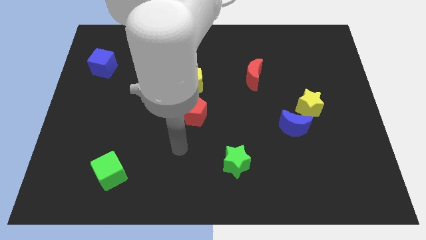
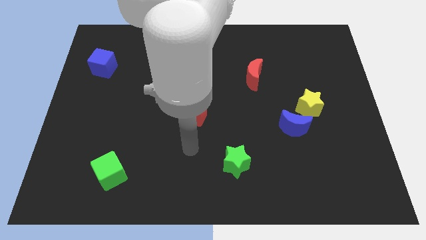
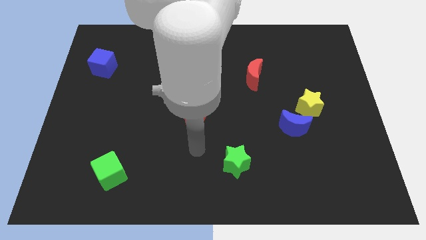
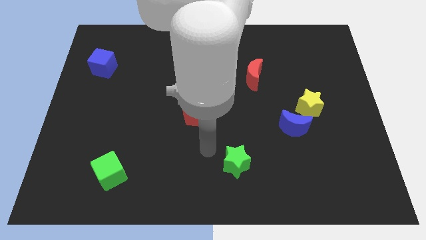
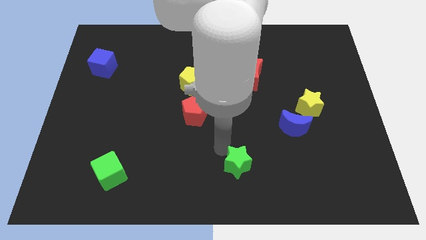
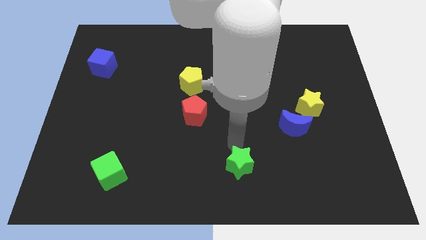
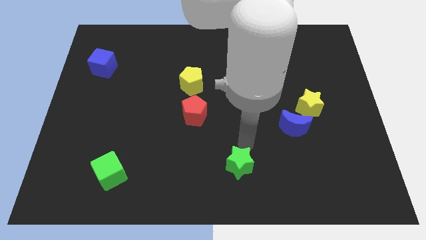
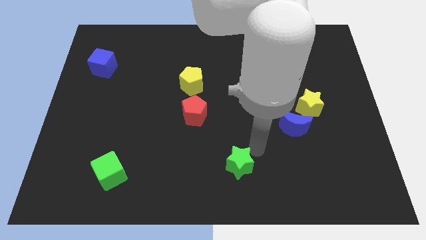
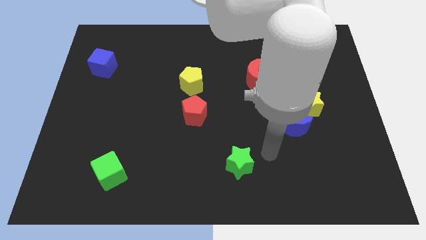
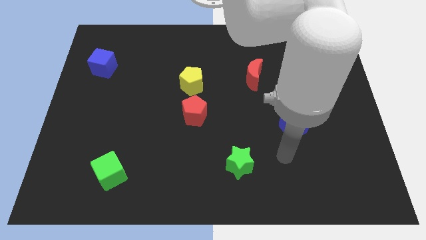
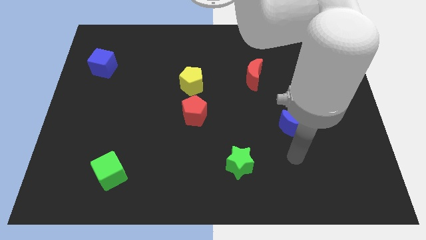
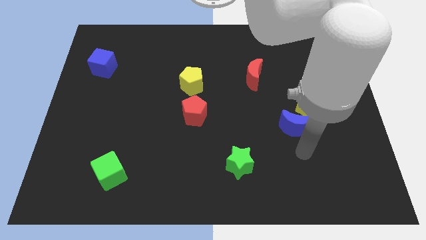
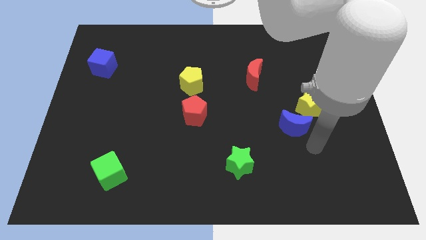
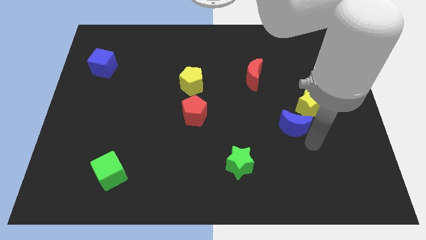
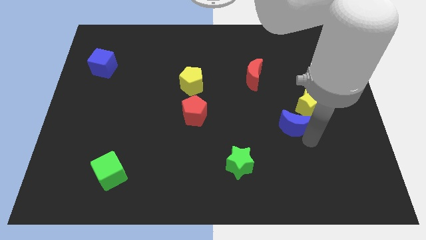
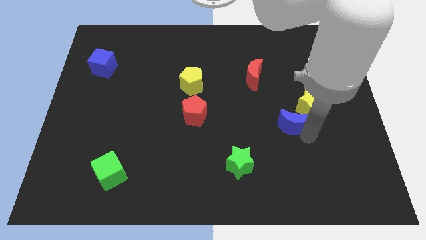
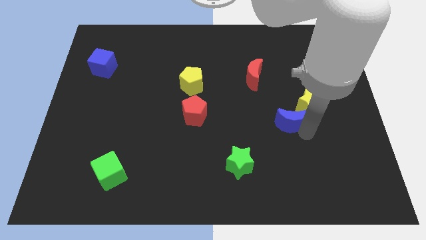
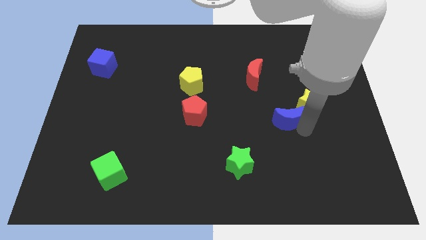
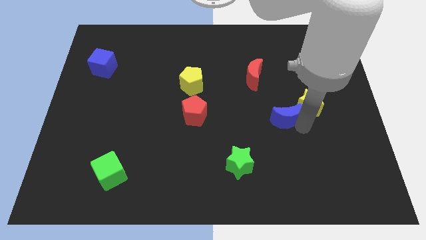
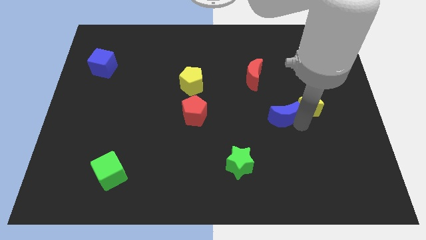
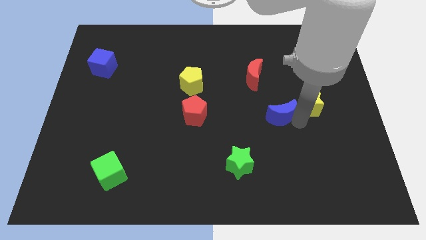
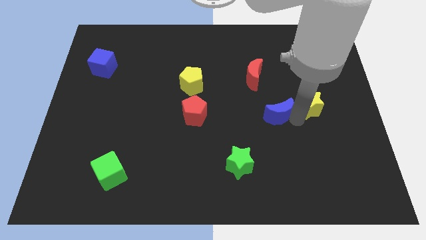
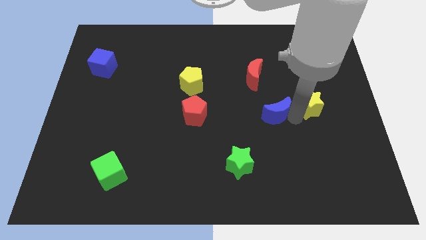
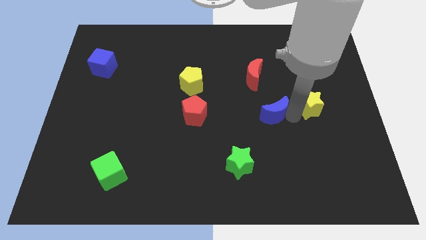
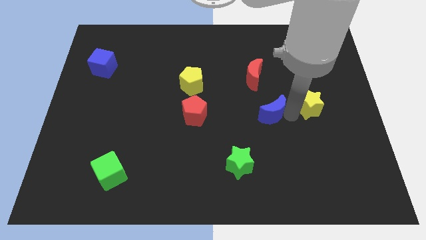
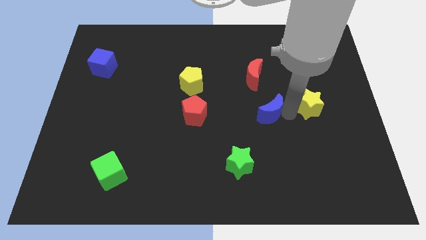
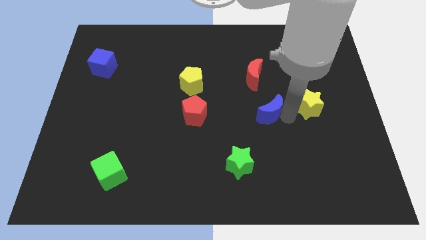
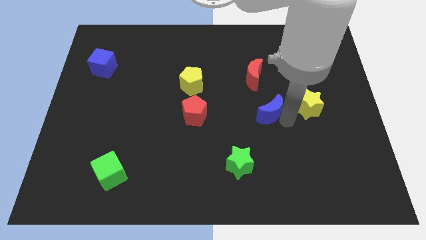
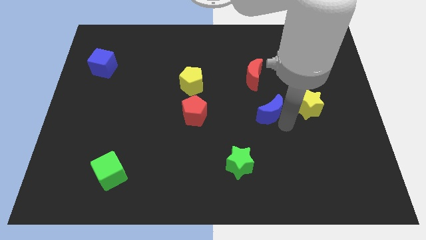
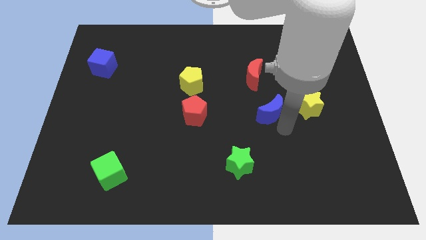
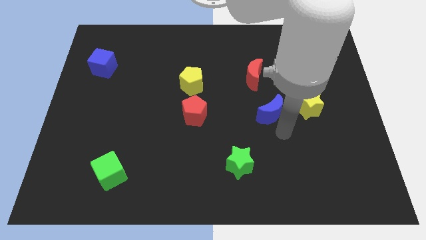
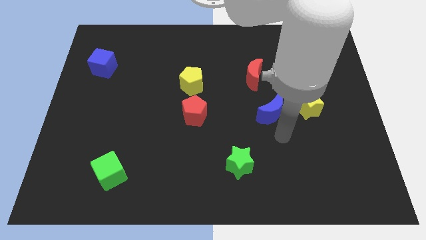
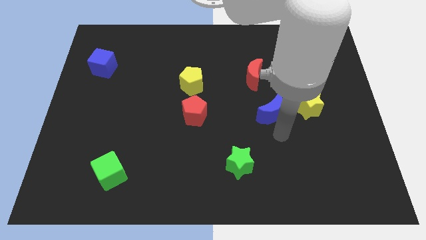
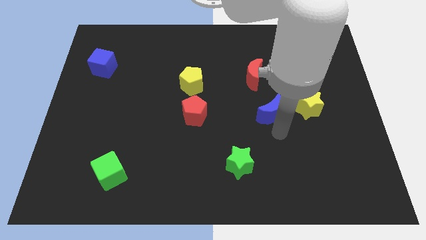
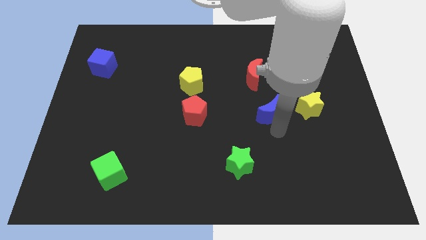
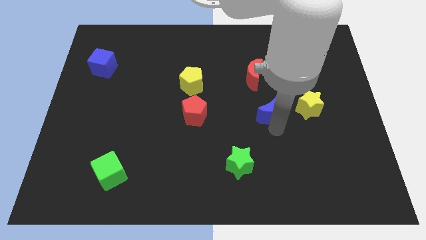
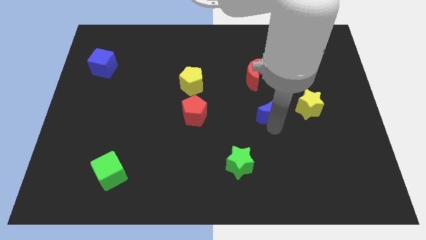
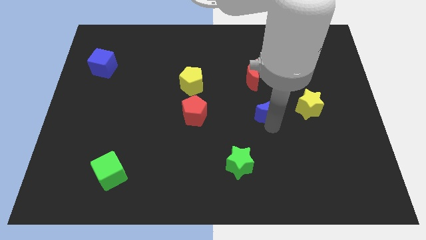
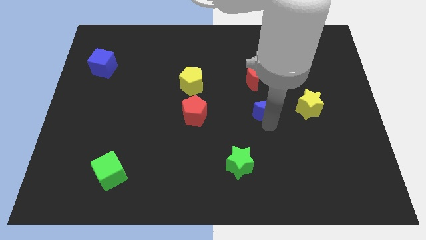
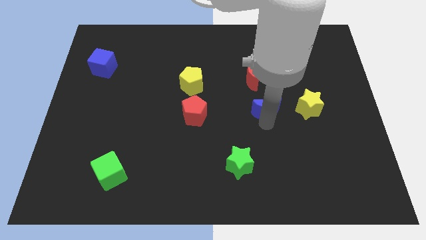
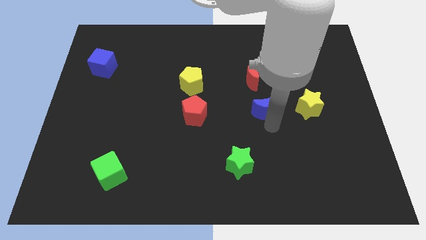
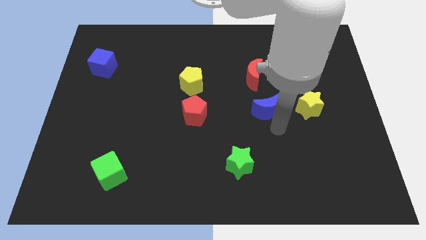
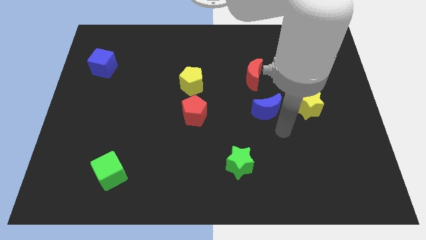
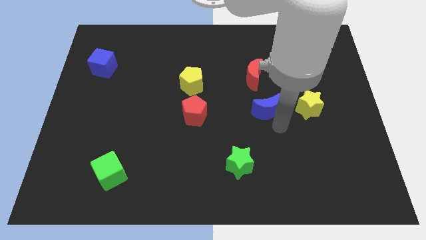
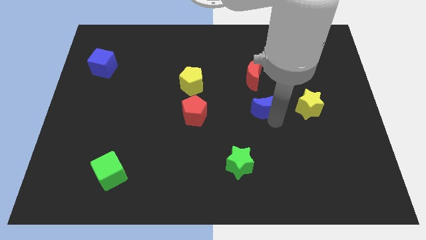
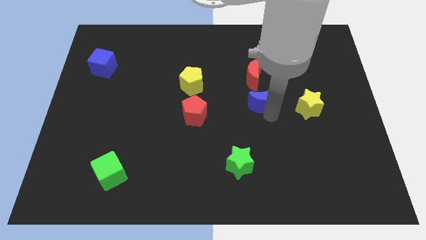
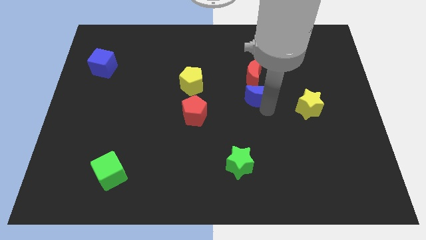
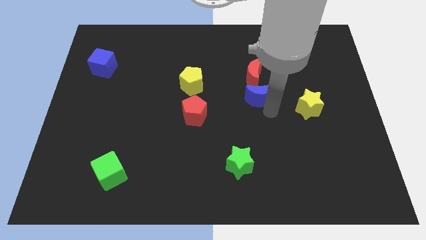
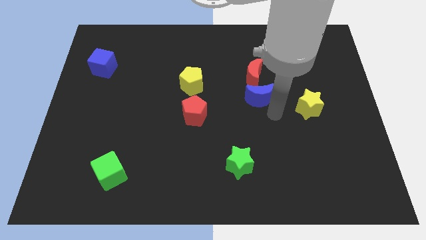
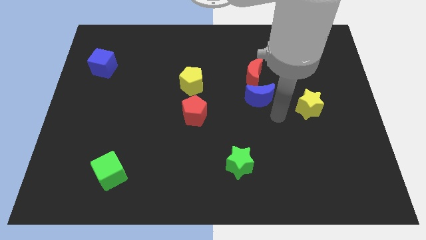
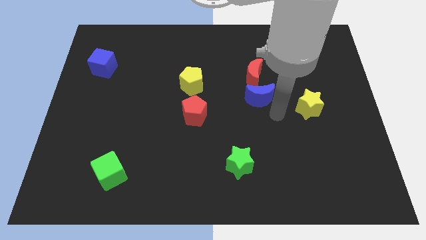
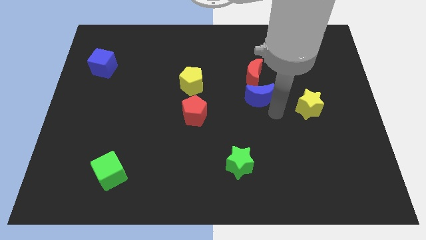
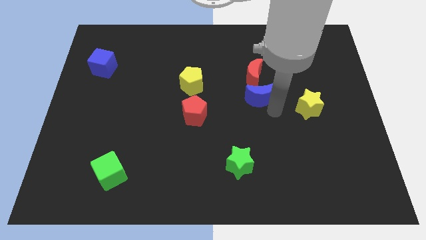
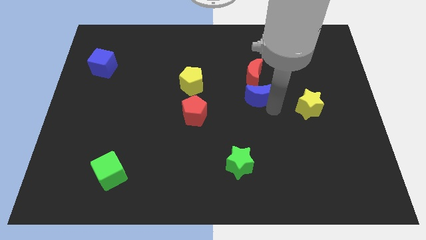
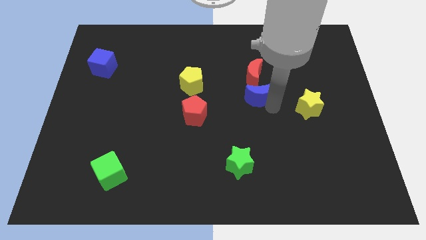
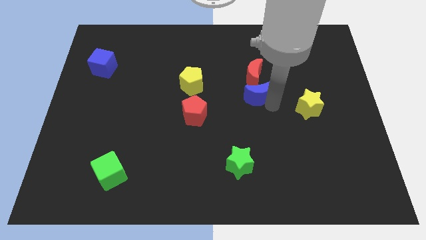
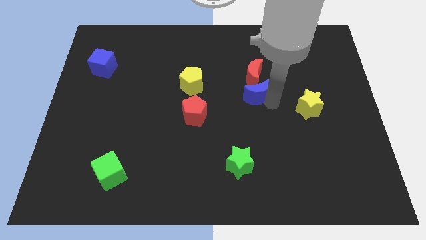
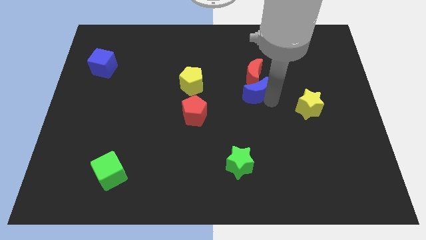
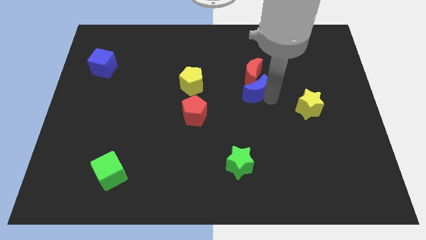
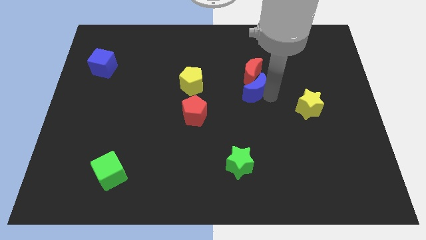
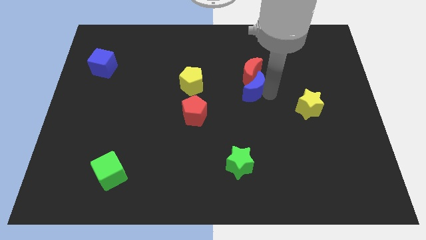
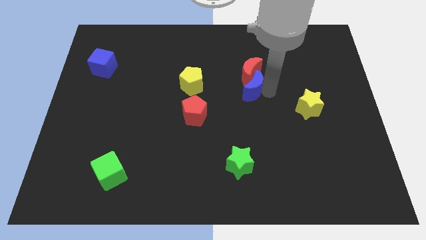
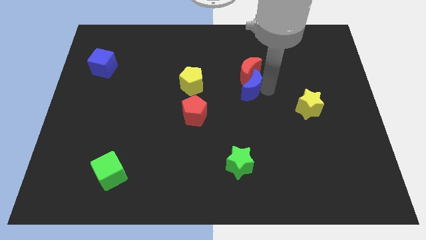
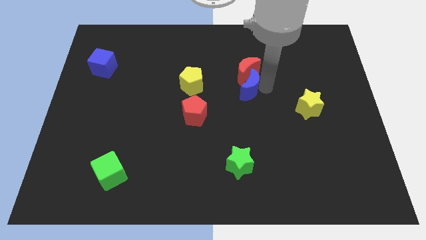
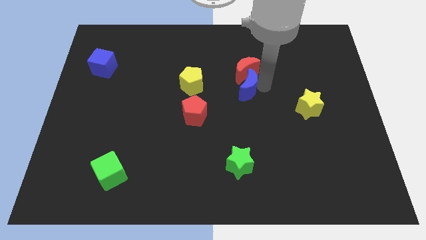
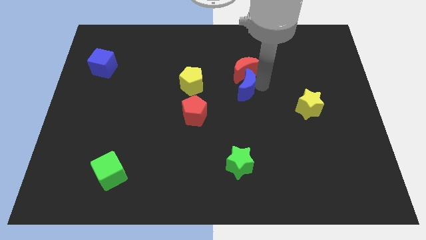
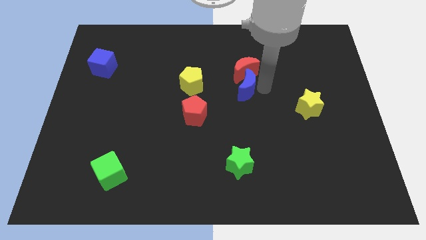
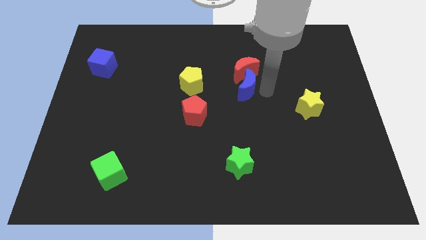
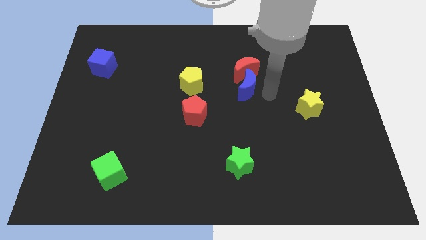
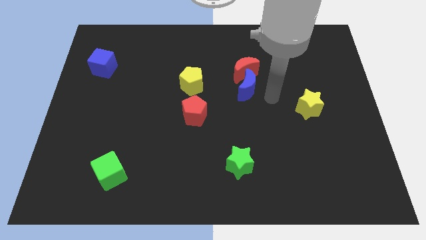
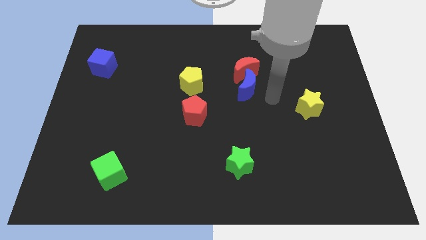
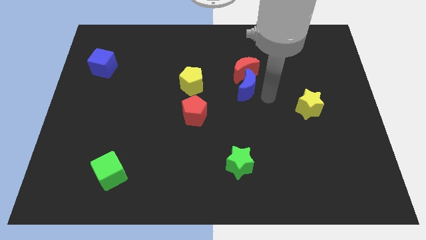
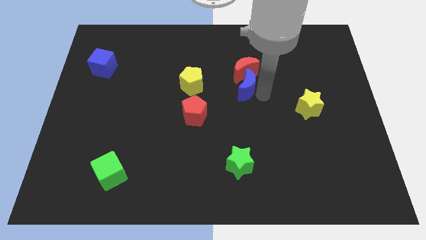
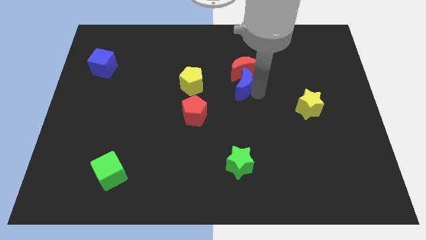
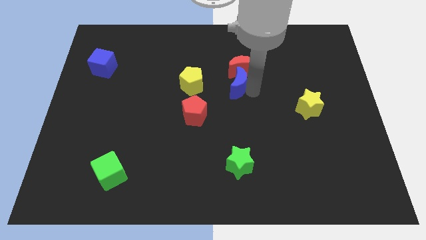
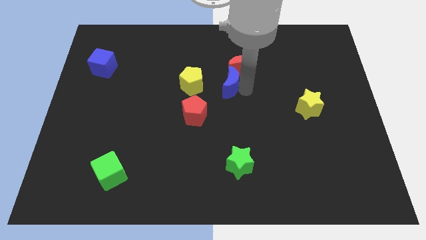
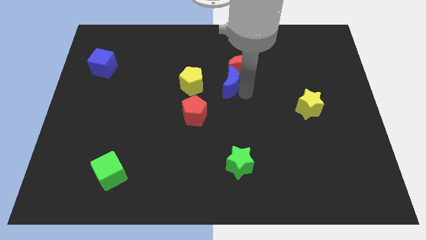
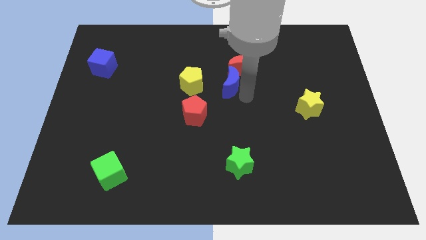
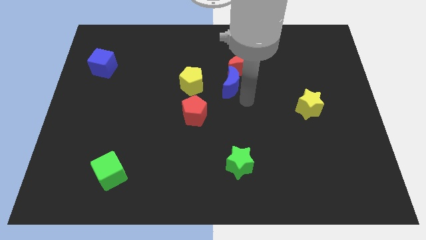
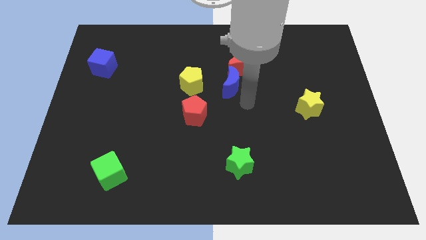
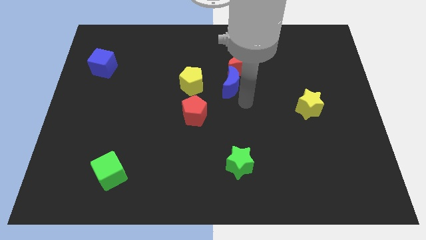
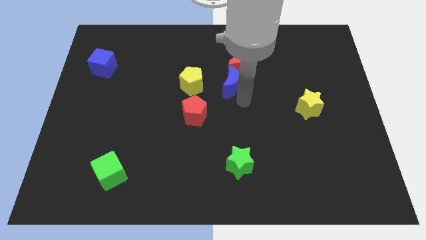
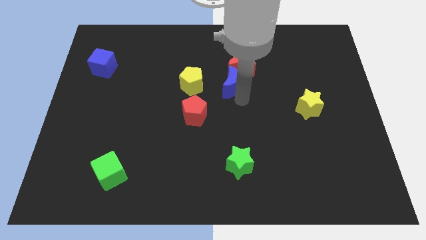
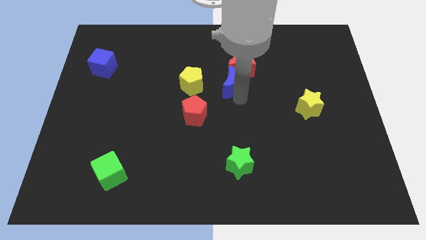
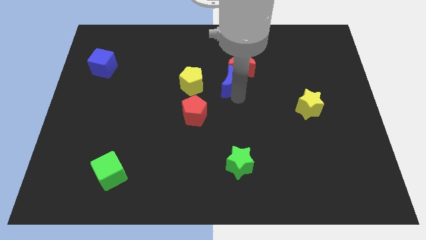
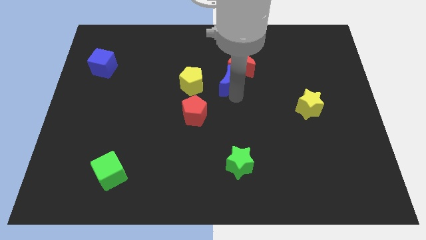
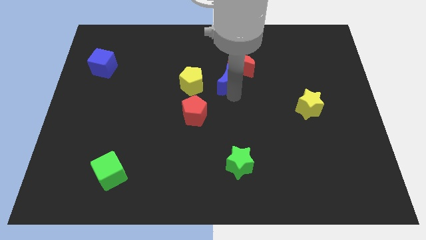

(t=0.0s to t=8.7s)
slide the blue moon upwards and to the left
